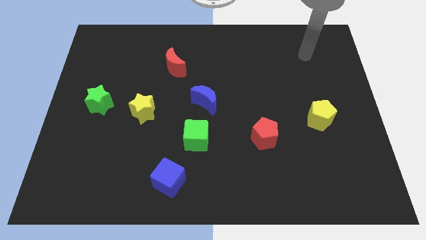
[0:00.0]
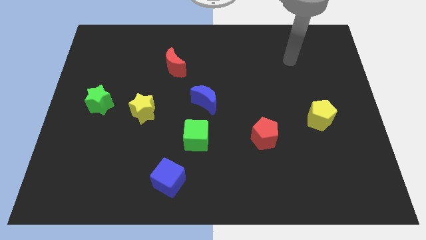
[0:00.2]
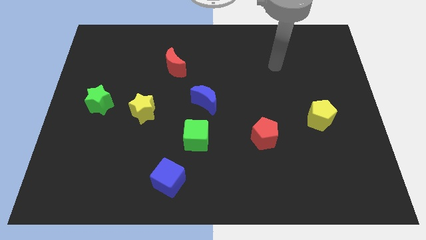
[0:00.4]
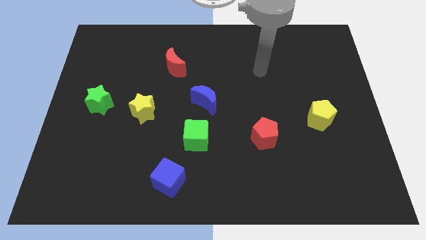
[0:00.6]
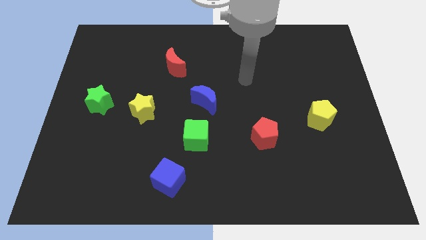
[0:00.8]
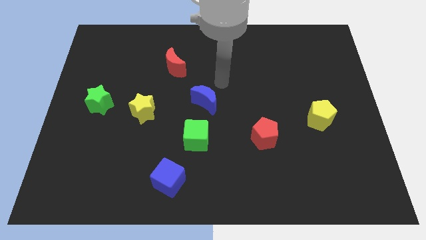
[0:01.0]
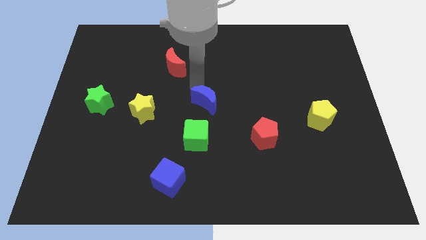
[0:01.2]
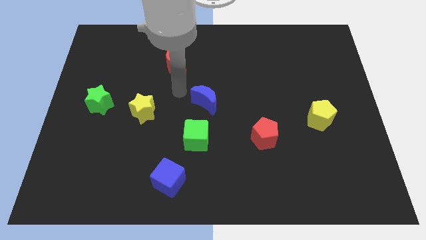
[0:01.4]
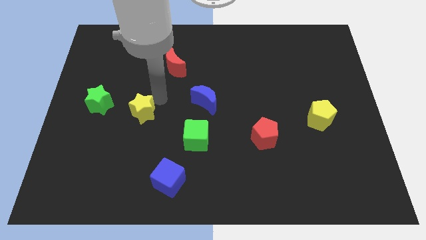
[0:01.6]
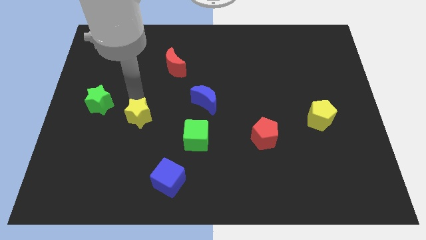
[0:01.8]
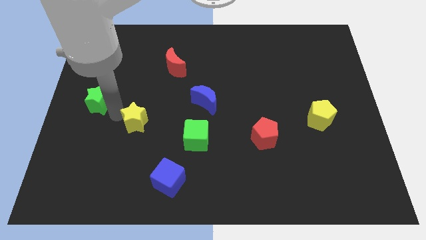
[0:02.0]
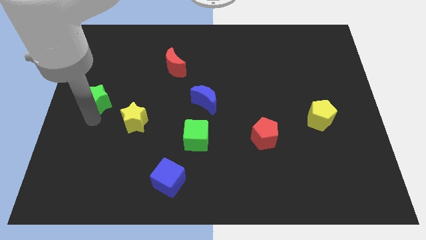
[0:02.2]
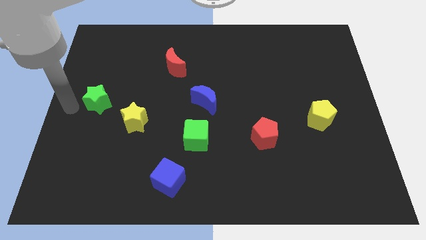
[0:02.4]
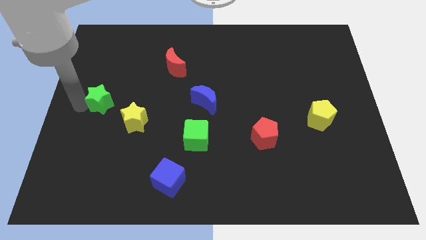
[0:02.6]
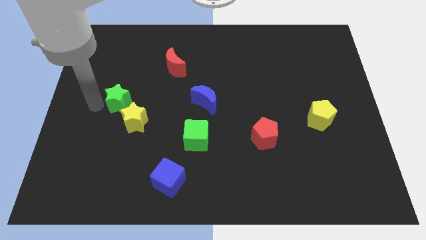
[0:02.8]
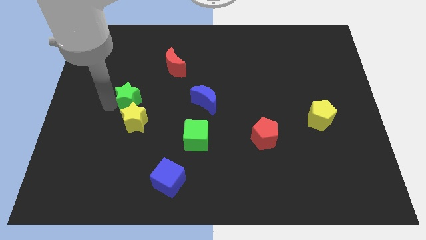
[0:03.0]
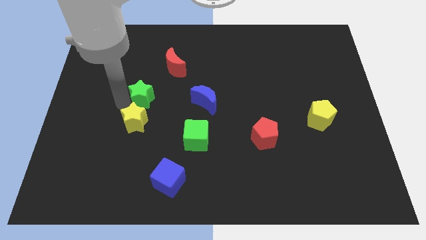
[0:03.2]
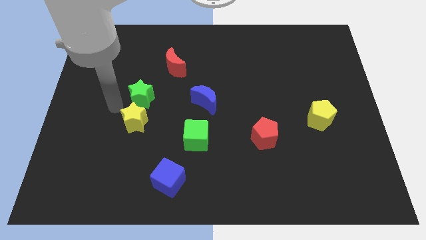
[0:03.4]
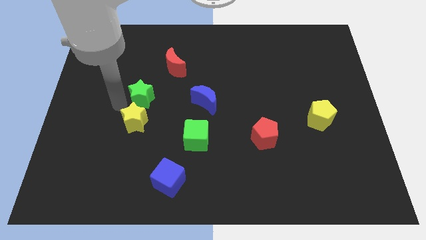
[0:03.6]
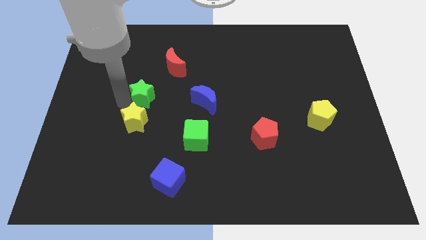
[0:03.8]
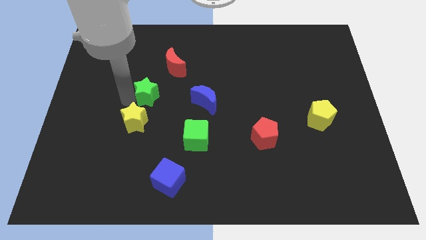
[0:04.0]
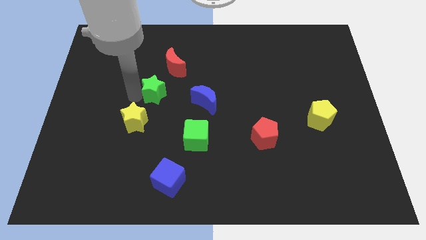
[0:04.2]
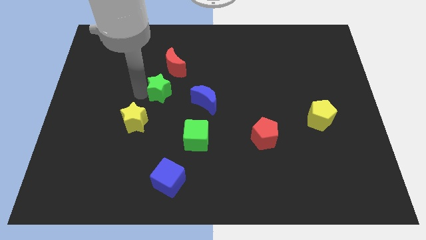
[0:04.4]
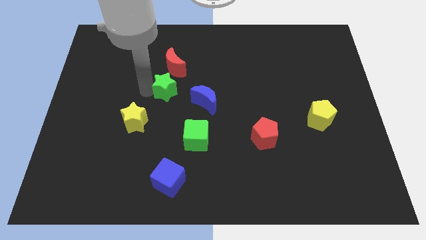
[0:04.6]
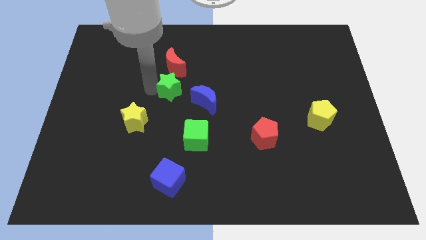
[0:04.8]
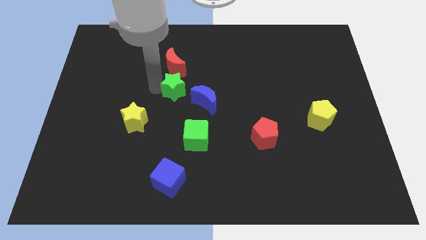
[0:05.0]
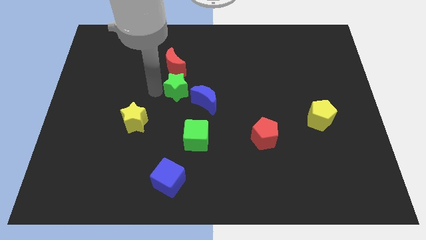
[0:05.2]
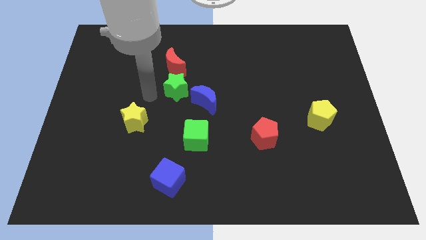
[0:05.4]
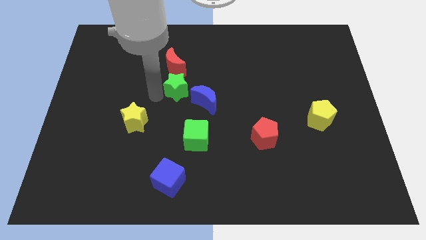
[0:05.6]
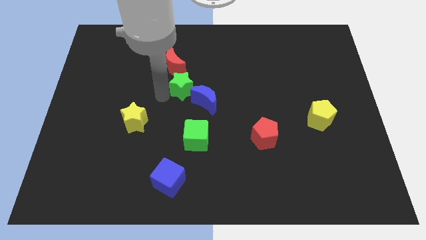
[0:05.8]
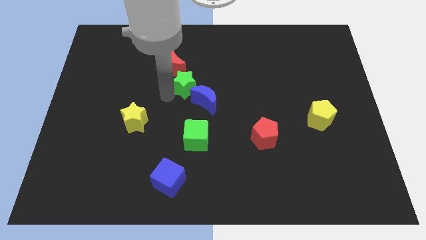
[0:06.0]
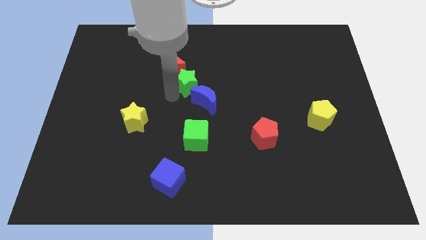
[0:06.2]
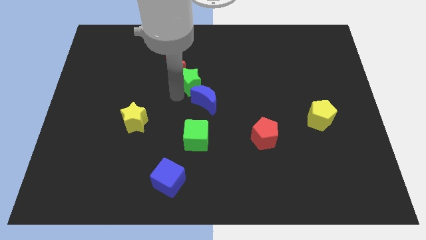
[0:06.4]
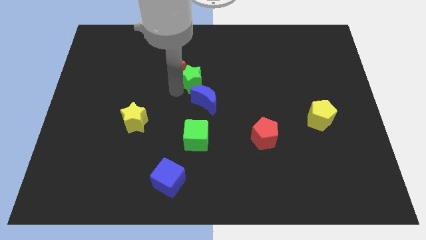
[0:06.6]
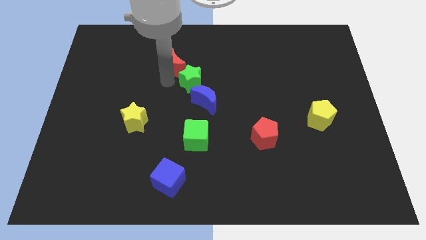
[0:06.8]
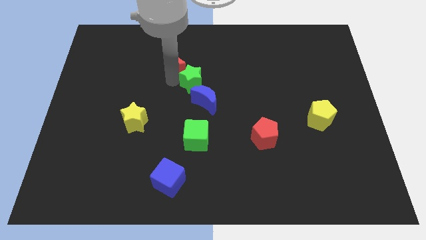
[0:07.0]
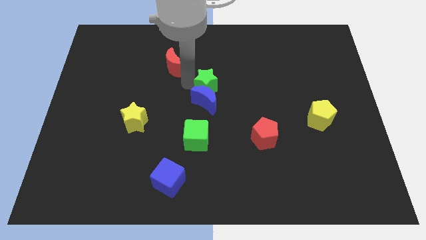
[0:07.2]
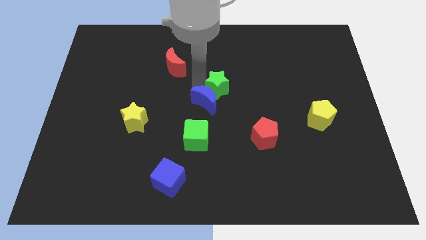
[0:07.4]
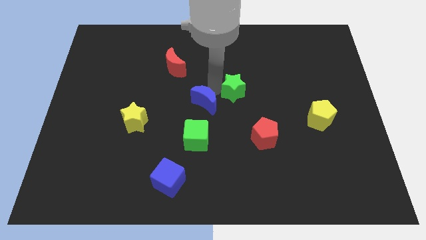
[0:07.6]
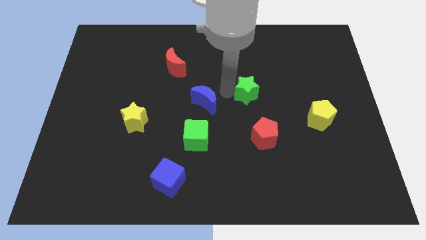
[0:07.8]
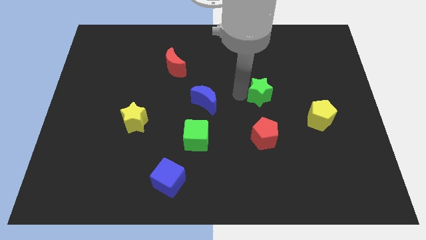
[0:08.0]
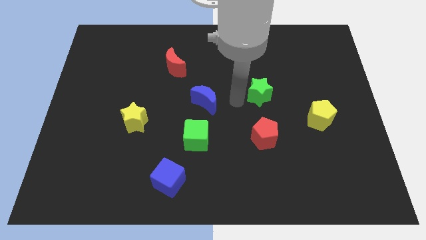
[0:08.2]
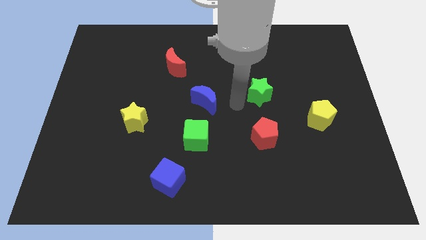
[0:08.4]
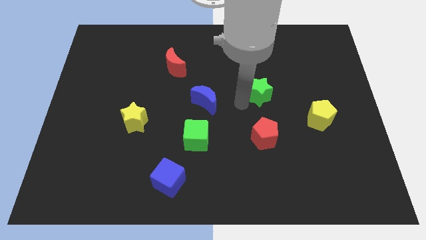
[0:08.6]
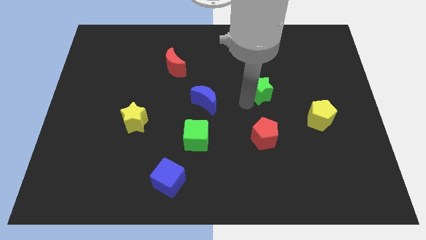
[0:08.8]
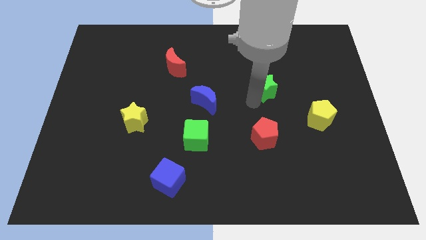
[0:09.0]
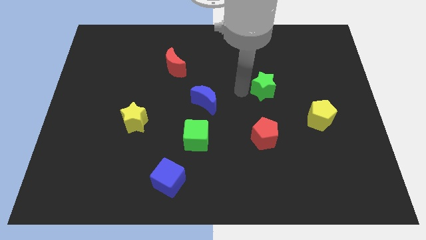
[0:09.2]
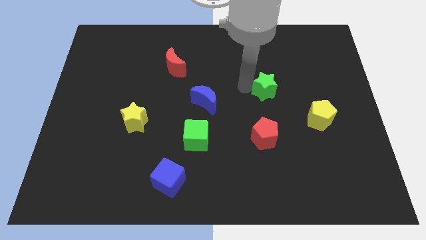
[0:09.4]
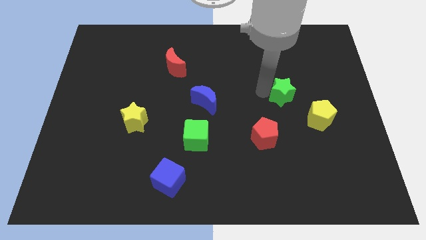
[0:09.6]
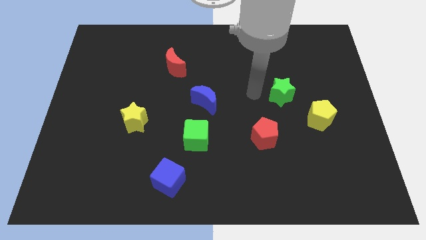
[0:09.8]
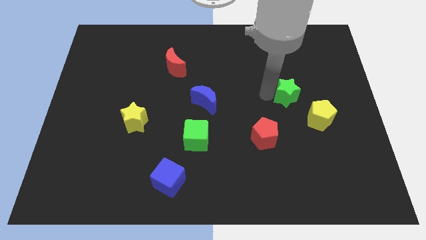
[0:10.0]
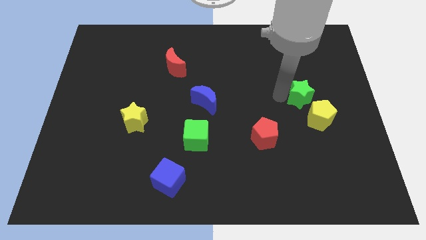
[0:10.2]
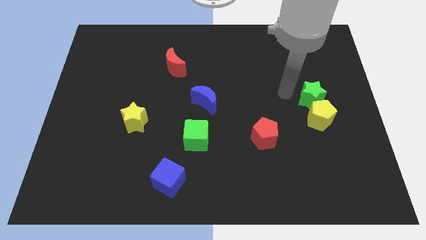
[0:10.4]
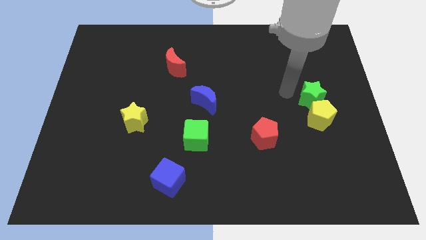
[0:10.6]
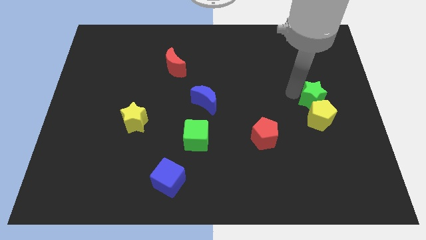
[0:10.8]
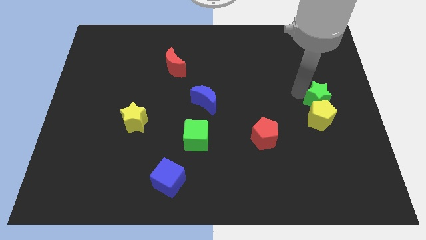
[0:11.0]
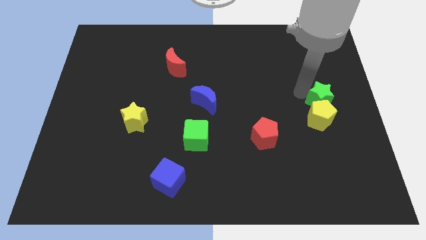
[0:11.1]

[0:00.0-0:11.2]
push the green star to the center right
